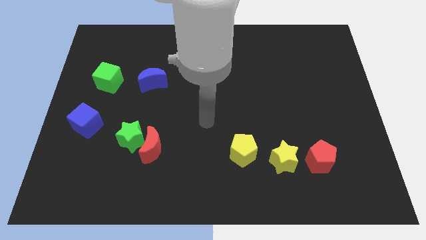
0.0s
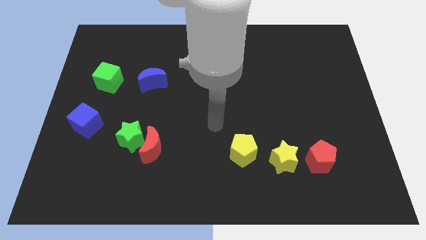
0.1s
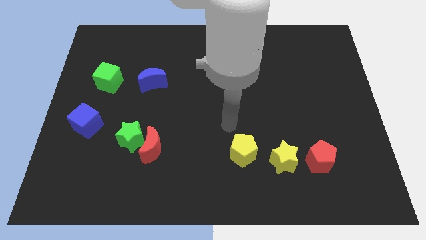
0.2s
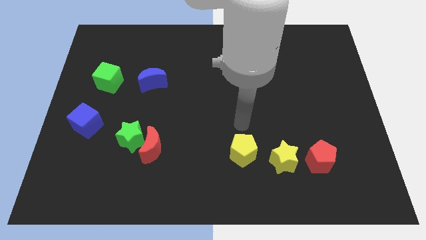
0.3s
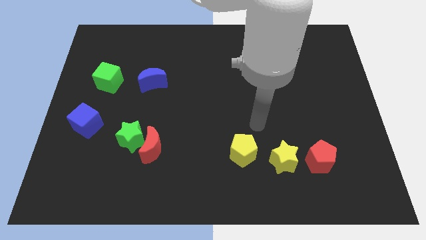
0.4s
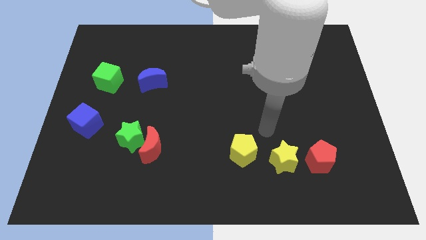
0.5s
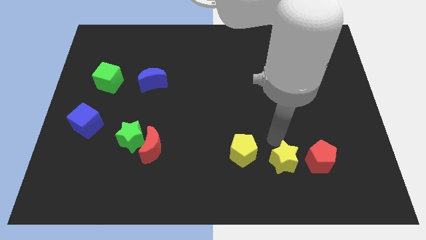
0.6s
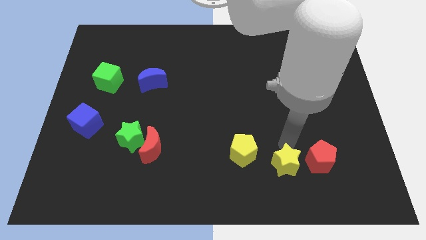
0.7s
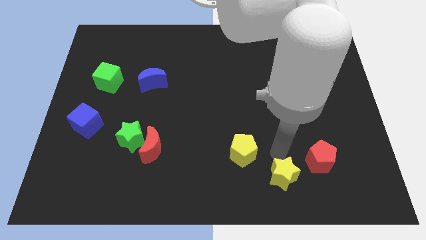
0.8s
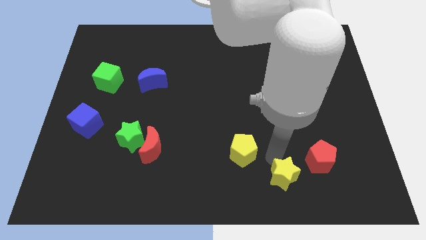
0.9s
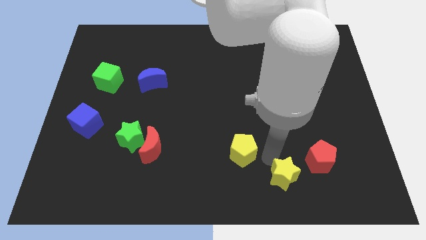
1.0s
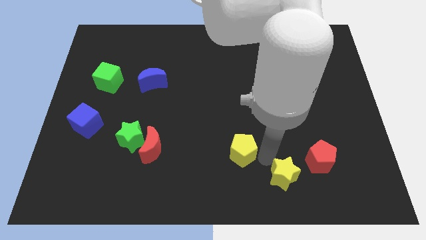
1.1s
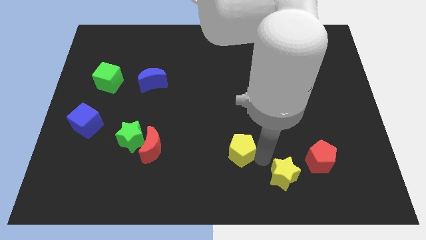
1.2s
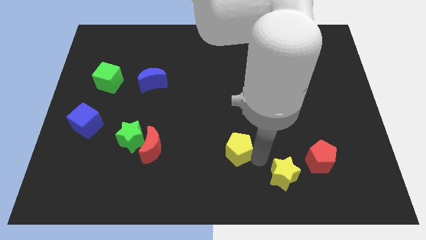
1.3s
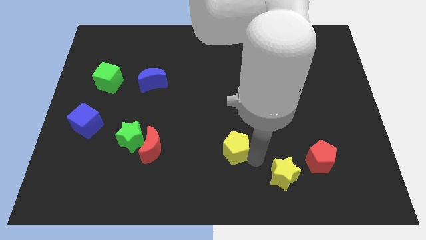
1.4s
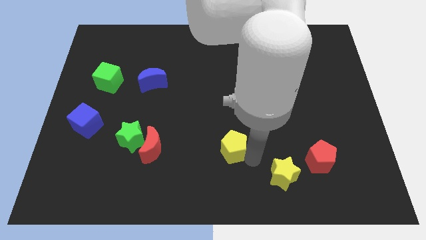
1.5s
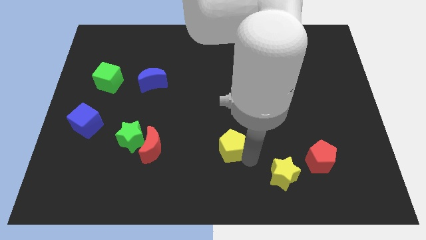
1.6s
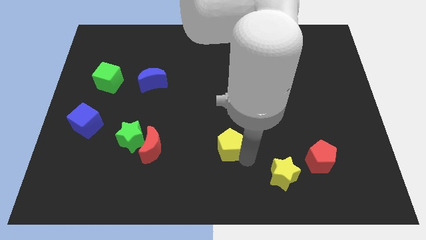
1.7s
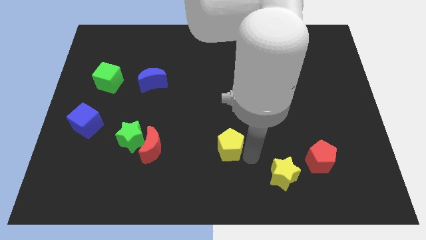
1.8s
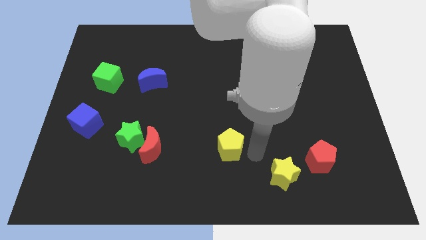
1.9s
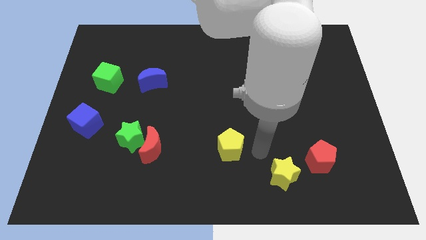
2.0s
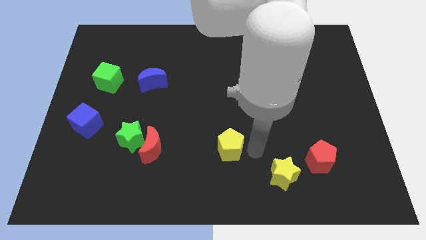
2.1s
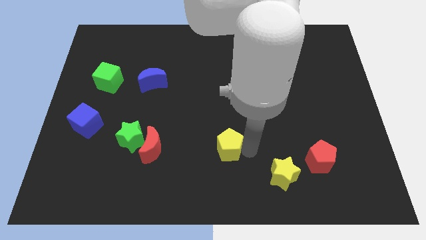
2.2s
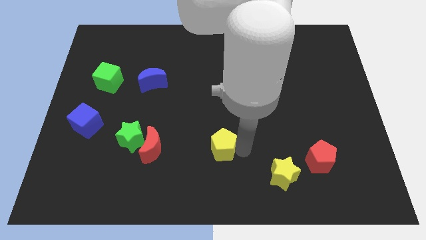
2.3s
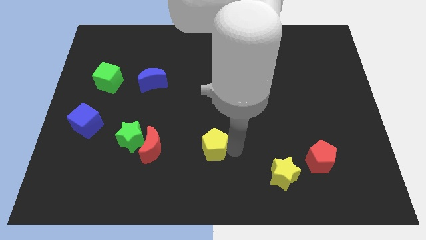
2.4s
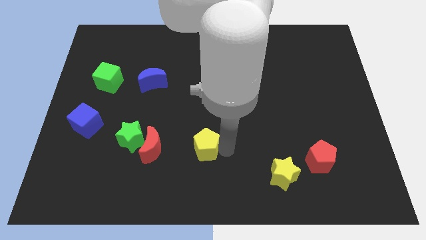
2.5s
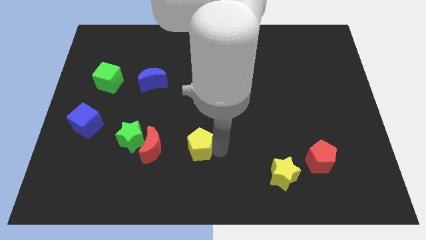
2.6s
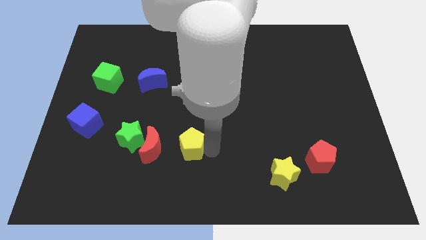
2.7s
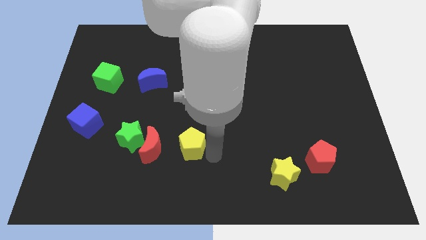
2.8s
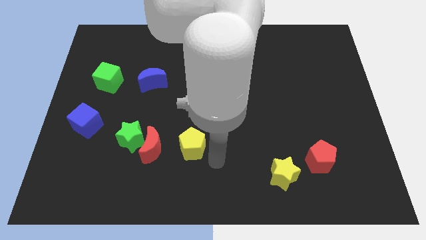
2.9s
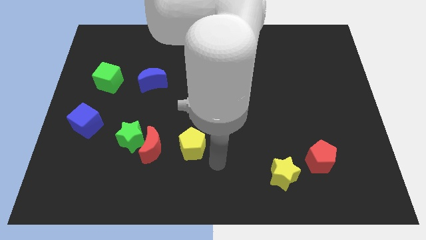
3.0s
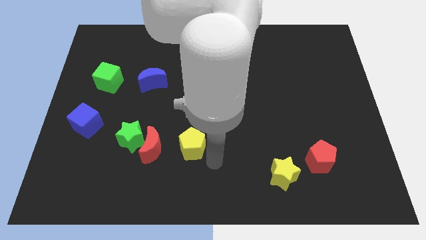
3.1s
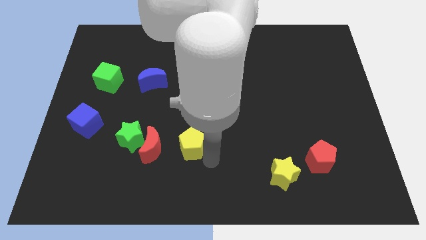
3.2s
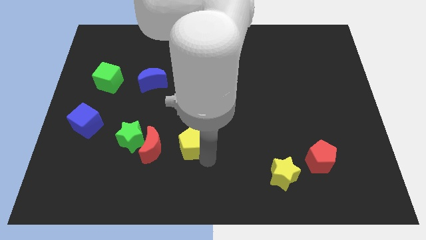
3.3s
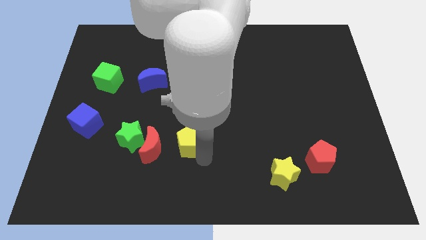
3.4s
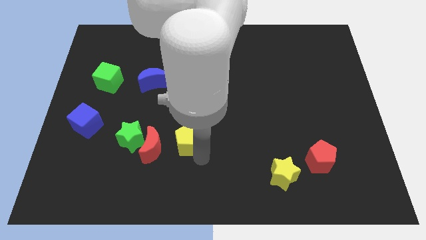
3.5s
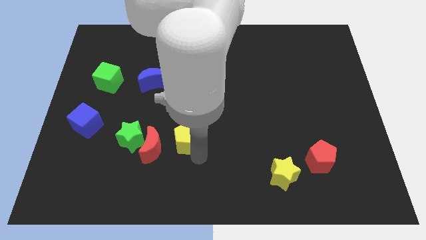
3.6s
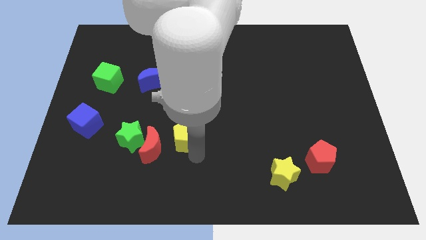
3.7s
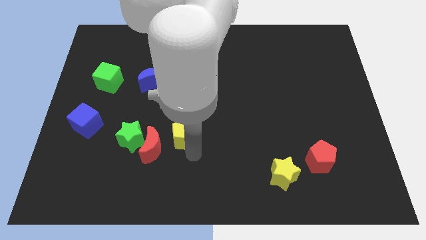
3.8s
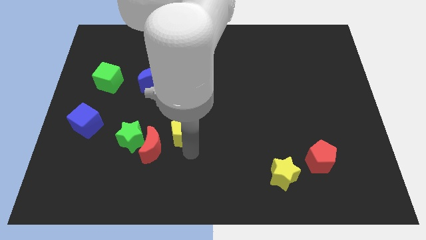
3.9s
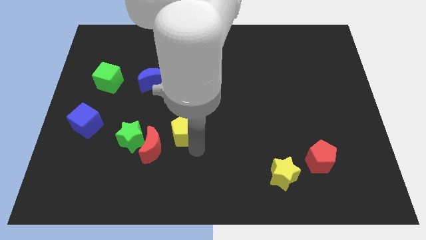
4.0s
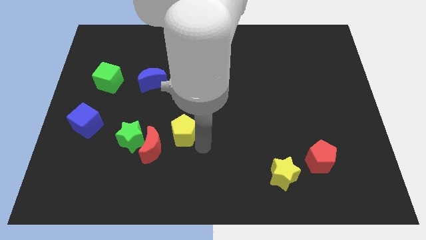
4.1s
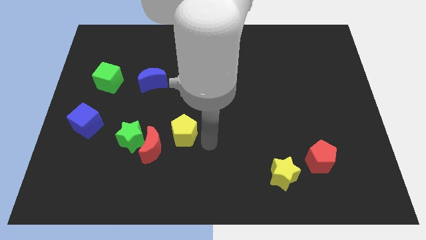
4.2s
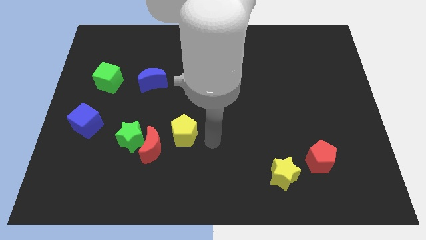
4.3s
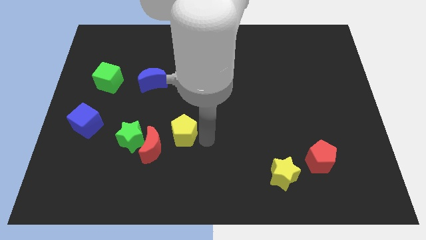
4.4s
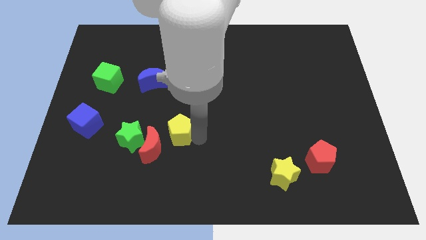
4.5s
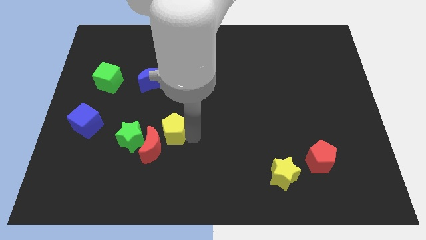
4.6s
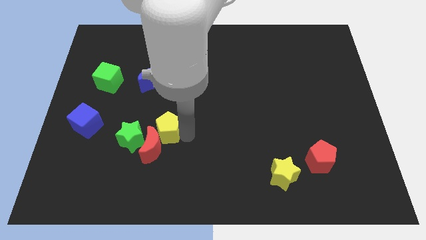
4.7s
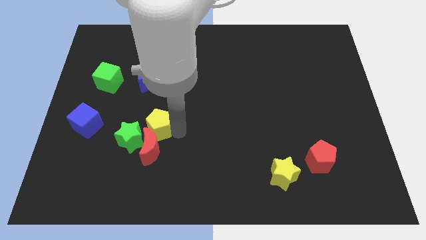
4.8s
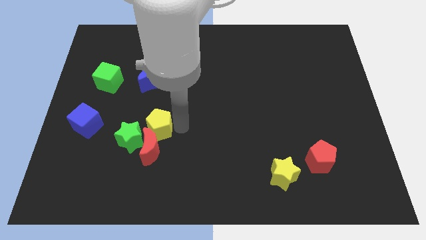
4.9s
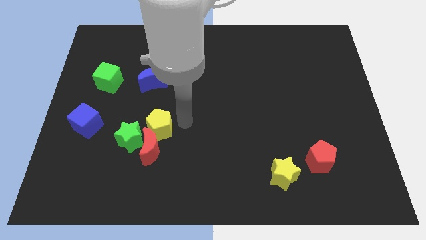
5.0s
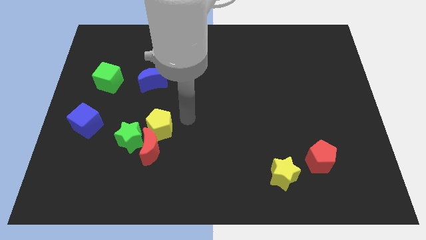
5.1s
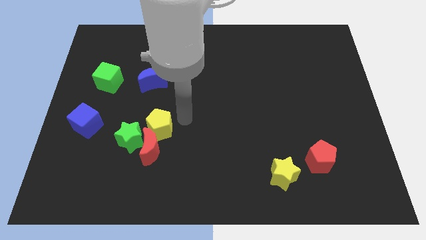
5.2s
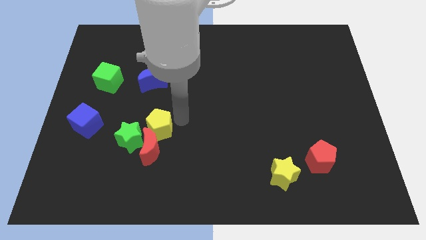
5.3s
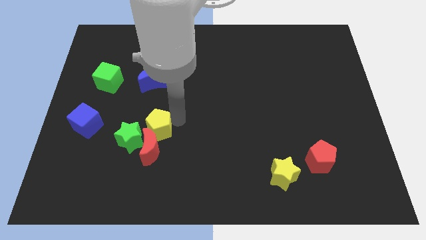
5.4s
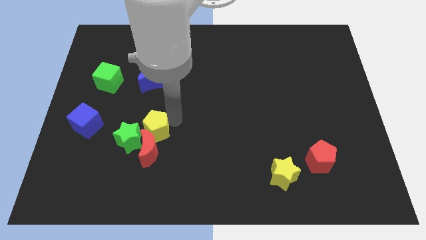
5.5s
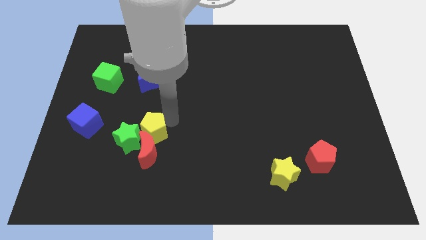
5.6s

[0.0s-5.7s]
move the yellow pentagon close to the green star
